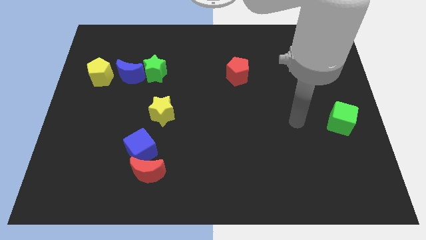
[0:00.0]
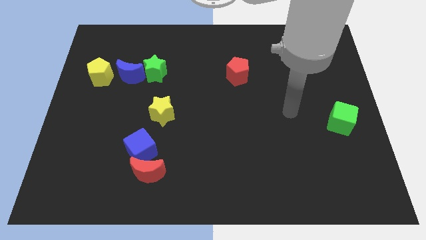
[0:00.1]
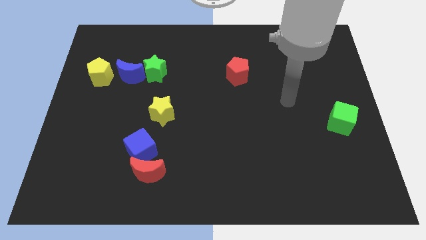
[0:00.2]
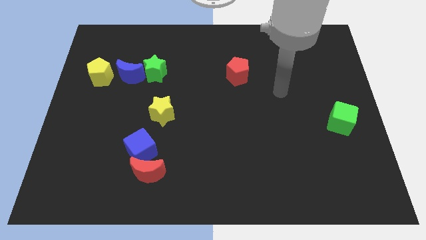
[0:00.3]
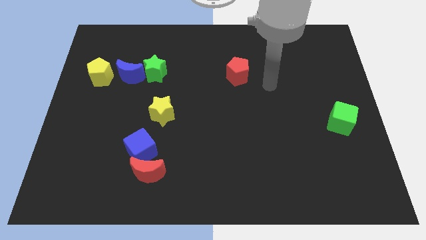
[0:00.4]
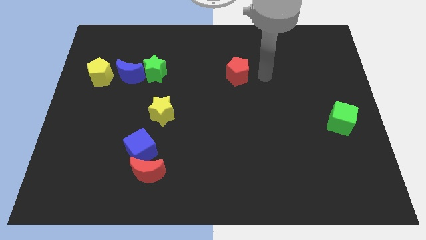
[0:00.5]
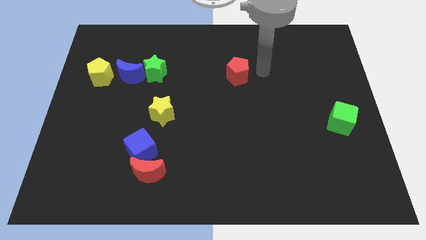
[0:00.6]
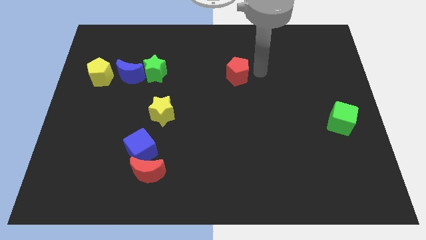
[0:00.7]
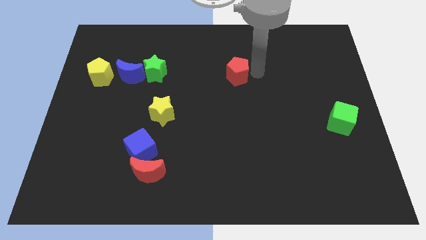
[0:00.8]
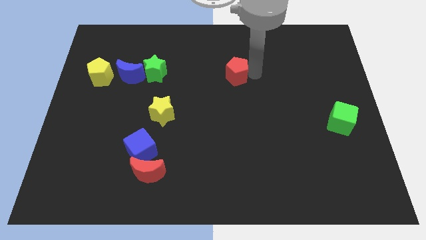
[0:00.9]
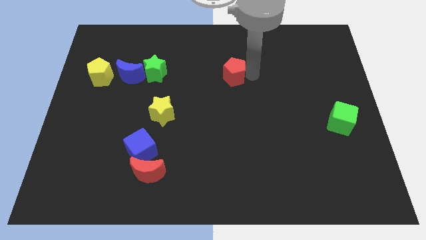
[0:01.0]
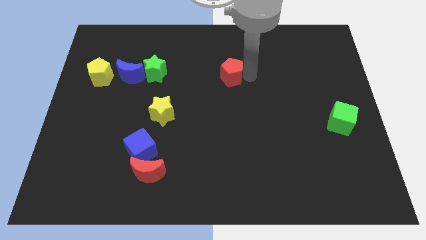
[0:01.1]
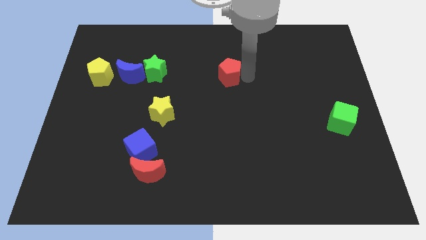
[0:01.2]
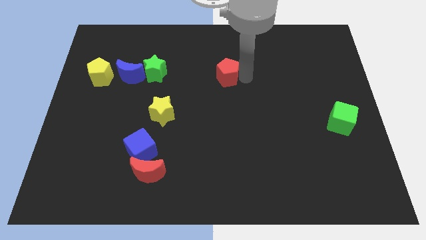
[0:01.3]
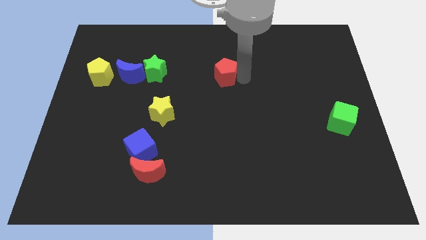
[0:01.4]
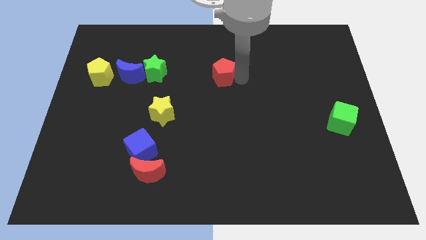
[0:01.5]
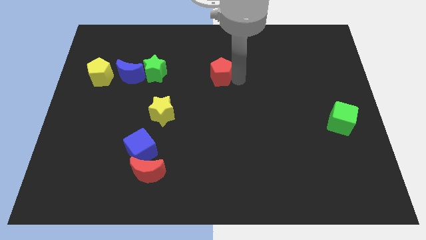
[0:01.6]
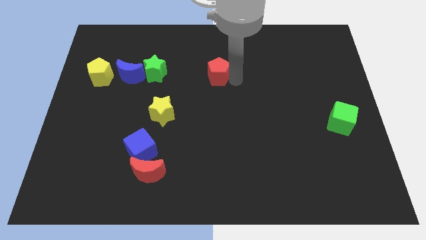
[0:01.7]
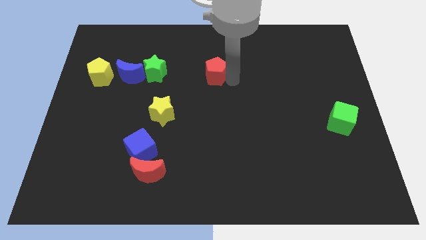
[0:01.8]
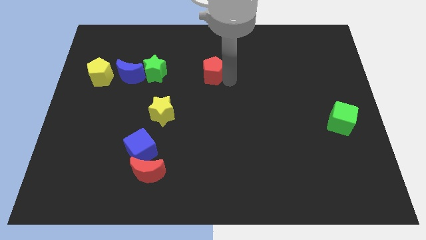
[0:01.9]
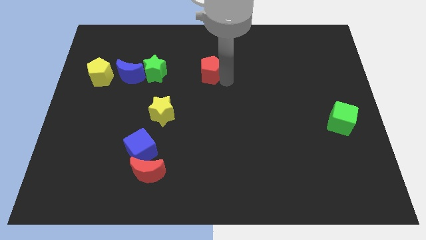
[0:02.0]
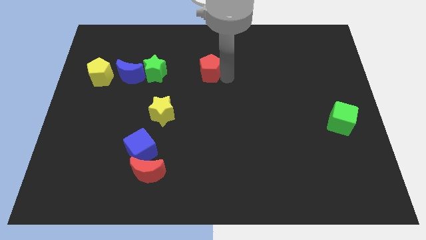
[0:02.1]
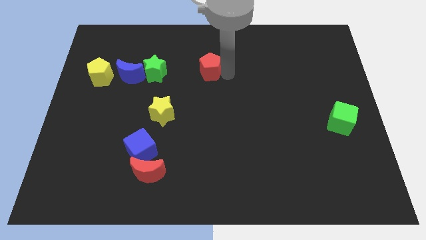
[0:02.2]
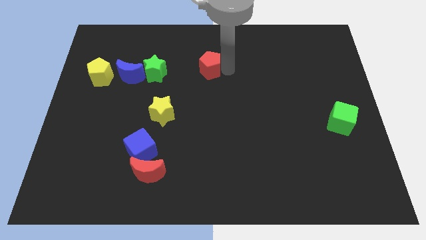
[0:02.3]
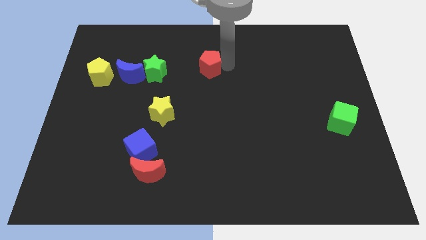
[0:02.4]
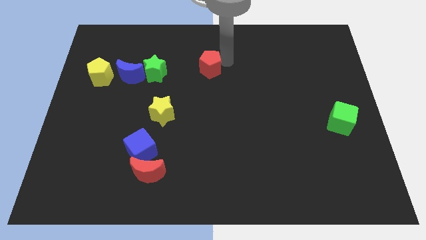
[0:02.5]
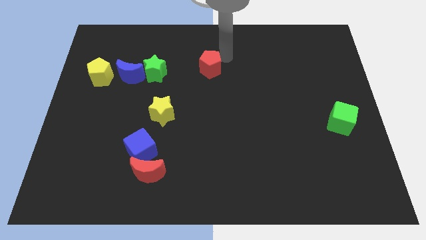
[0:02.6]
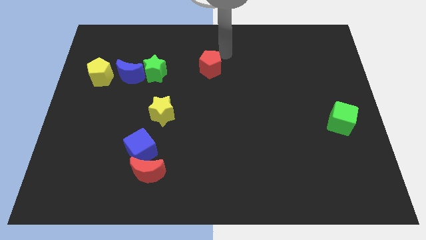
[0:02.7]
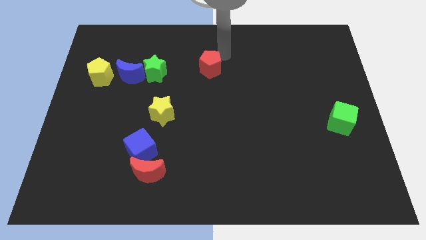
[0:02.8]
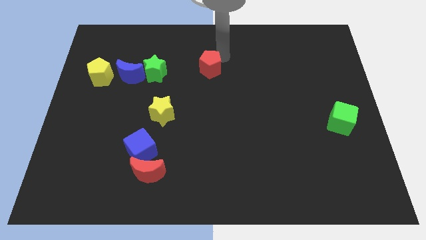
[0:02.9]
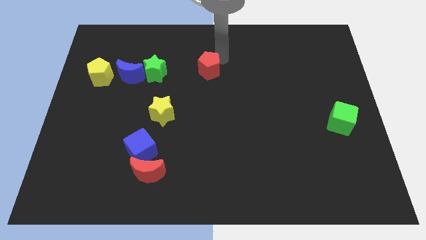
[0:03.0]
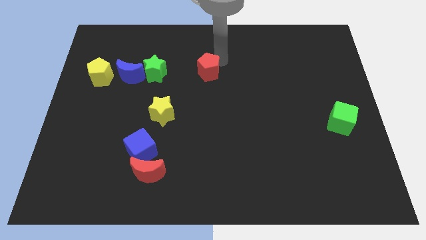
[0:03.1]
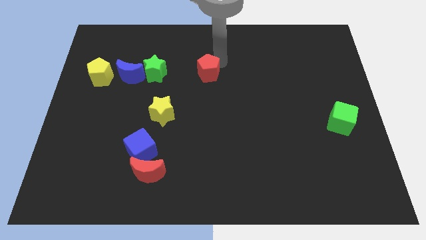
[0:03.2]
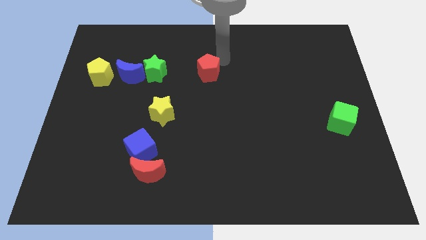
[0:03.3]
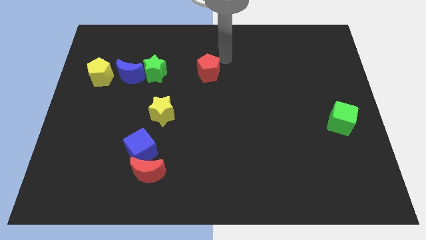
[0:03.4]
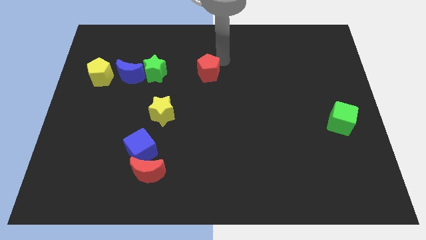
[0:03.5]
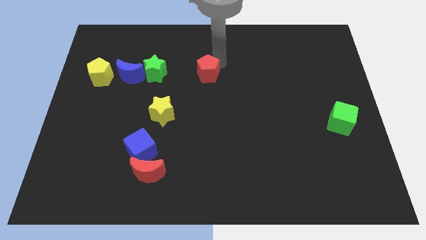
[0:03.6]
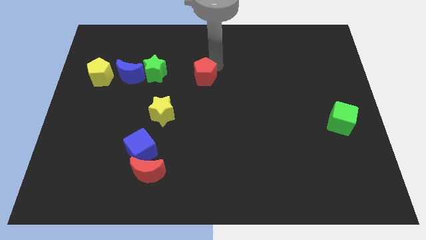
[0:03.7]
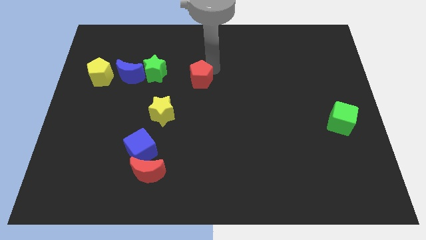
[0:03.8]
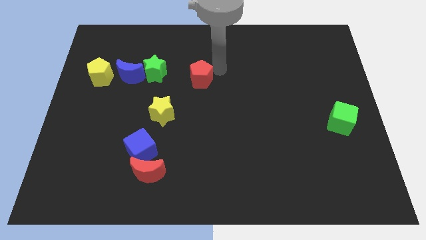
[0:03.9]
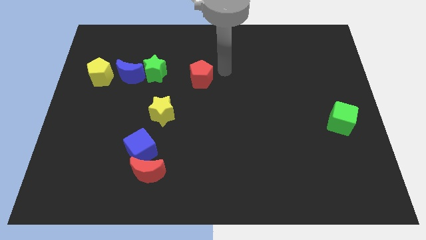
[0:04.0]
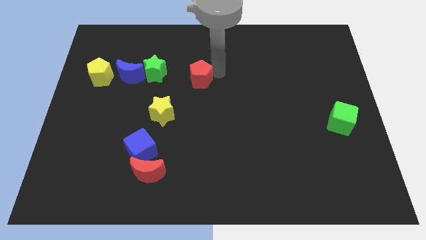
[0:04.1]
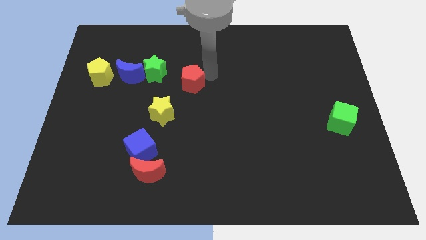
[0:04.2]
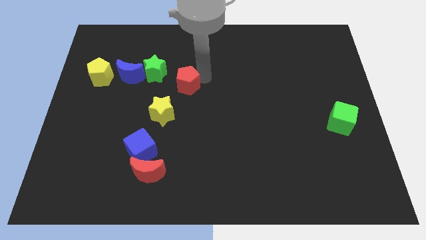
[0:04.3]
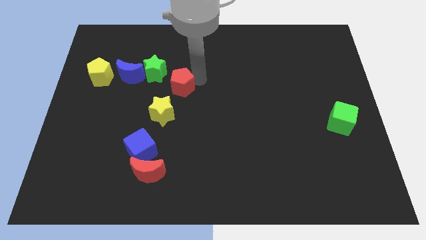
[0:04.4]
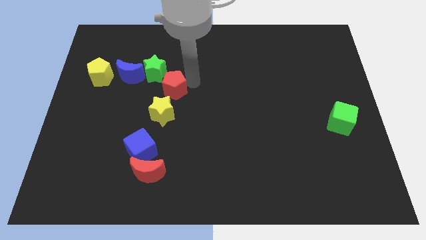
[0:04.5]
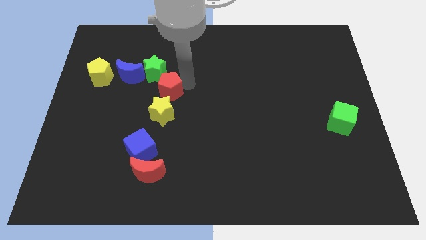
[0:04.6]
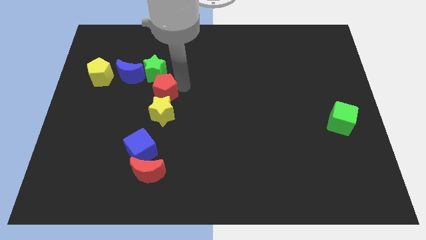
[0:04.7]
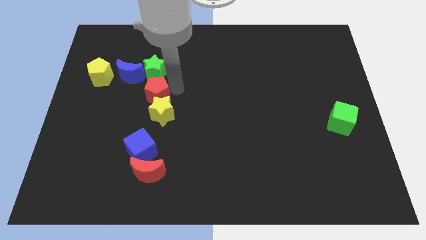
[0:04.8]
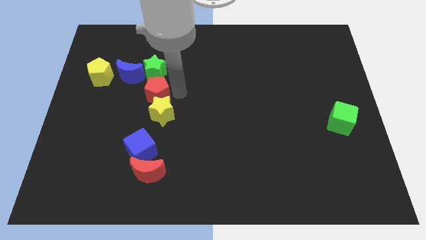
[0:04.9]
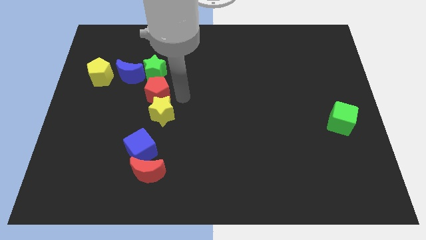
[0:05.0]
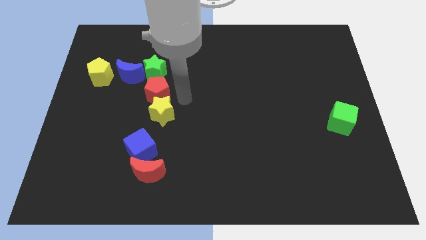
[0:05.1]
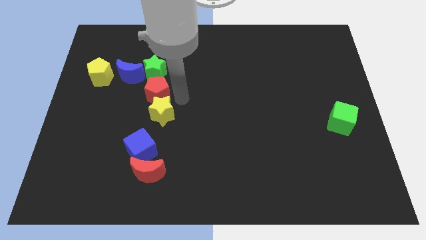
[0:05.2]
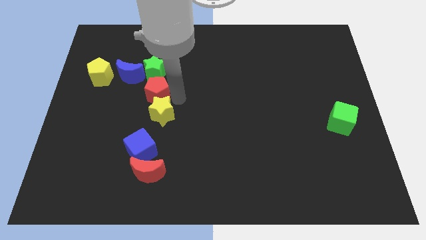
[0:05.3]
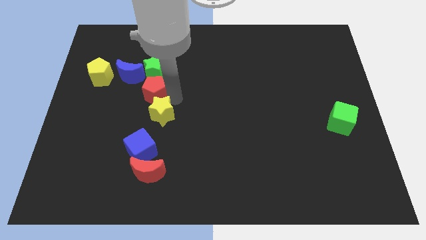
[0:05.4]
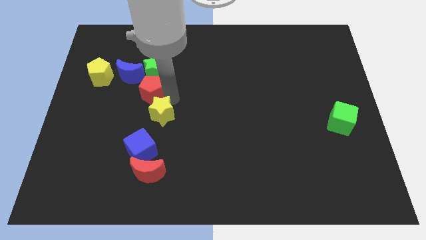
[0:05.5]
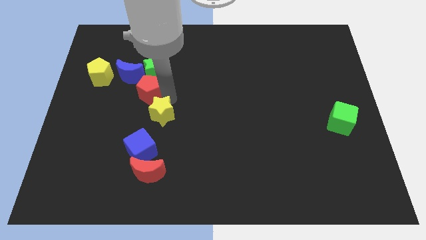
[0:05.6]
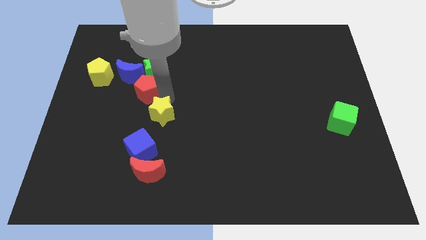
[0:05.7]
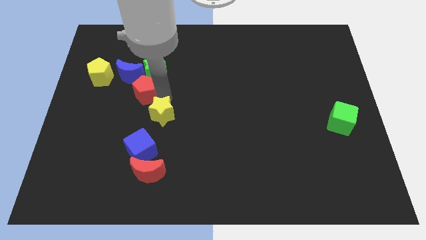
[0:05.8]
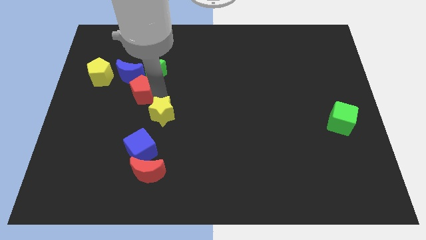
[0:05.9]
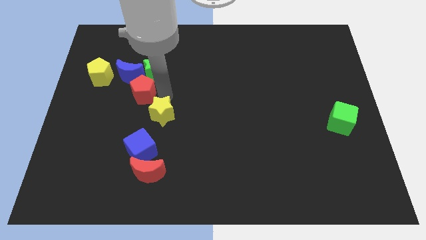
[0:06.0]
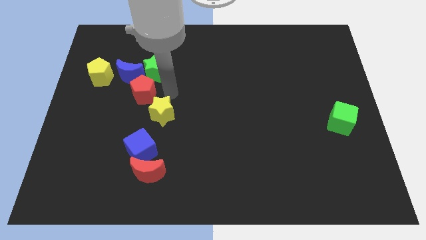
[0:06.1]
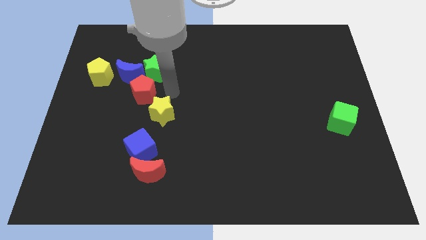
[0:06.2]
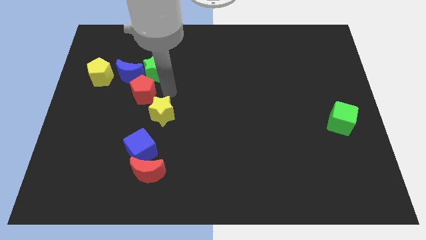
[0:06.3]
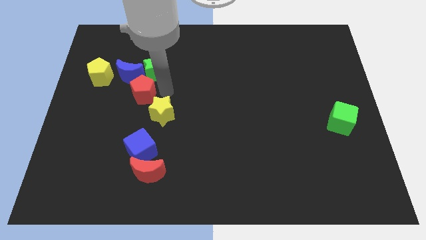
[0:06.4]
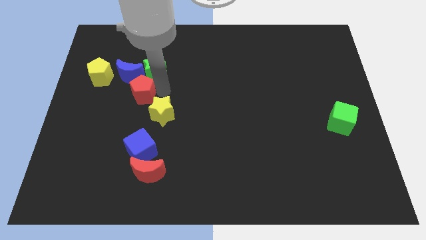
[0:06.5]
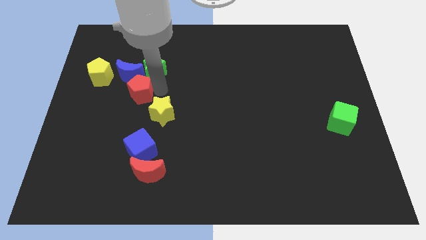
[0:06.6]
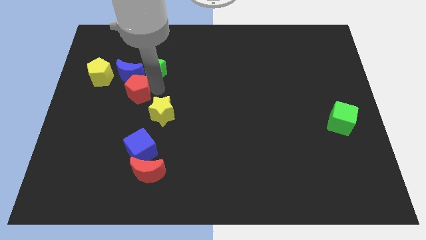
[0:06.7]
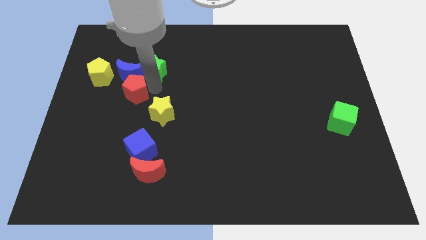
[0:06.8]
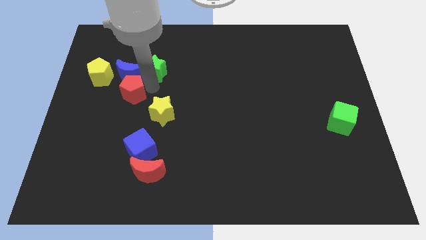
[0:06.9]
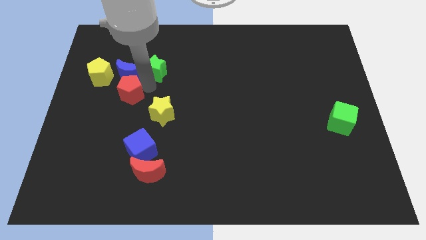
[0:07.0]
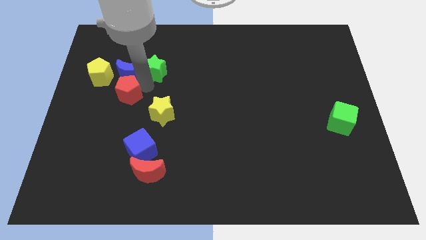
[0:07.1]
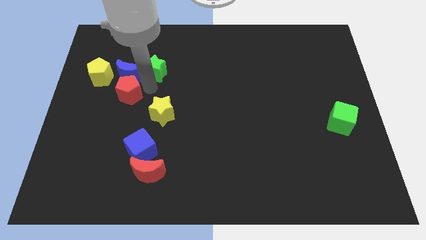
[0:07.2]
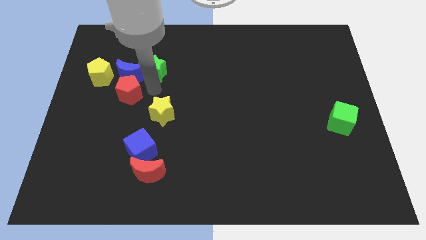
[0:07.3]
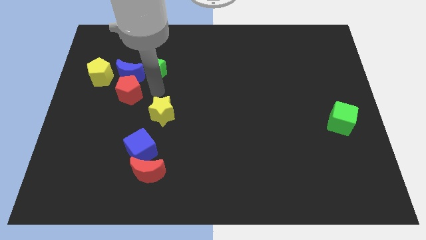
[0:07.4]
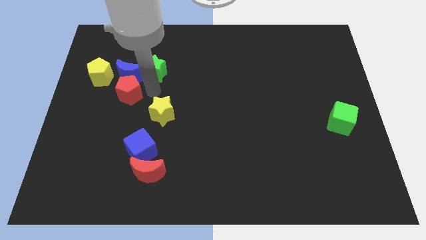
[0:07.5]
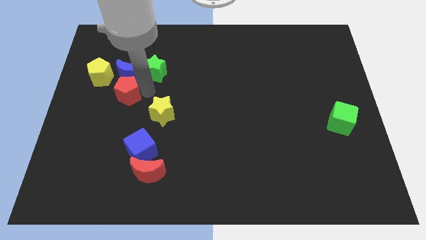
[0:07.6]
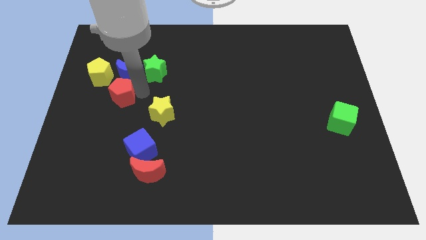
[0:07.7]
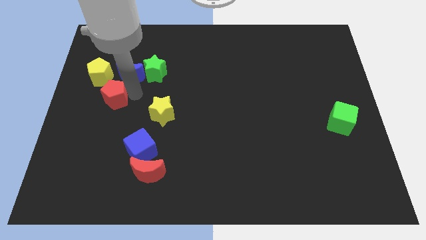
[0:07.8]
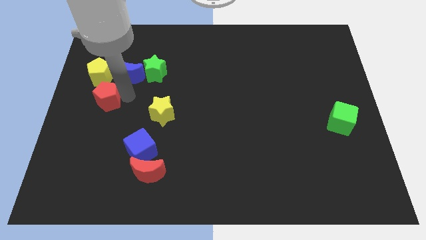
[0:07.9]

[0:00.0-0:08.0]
slide the red pentagon to the center left

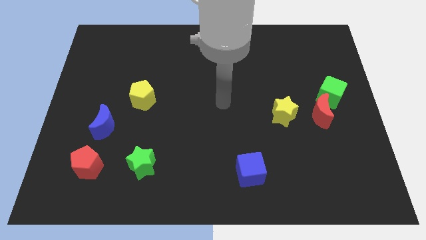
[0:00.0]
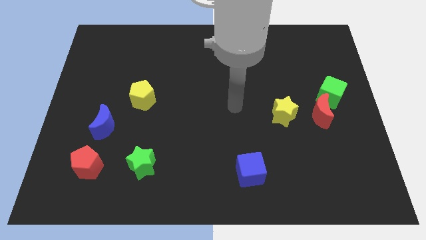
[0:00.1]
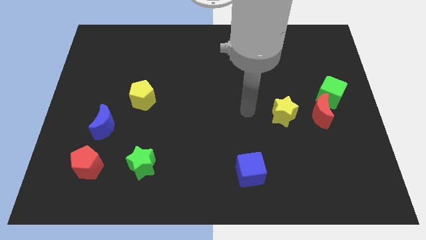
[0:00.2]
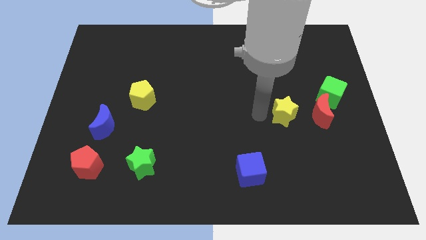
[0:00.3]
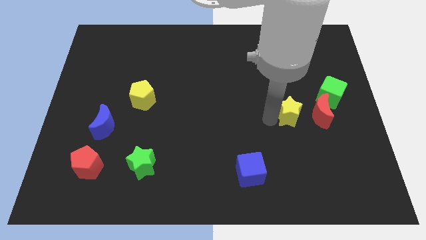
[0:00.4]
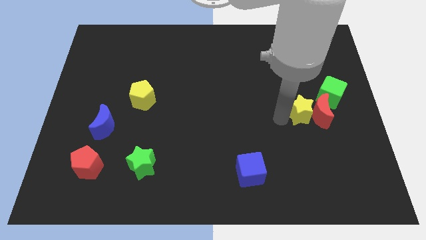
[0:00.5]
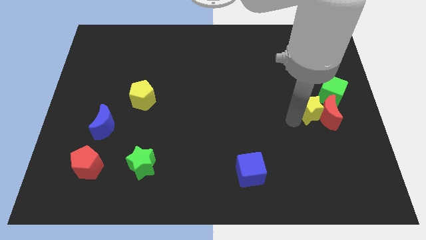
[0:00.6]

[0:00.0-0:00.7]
push the red moon to the center right
